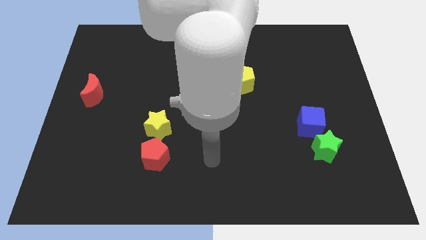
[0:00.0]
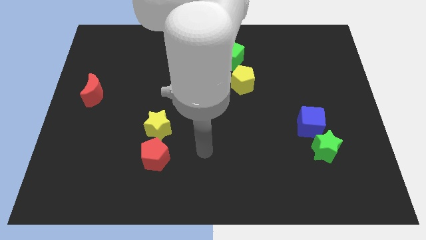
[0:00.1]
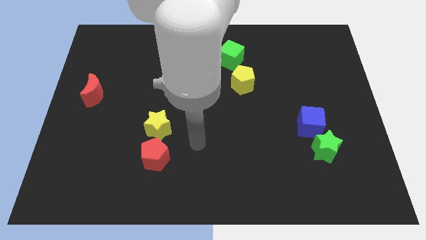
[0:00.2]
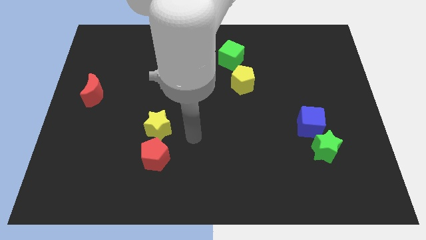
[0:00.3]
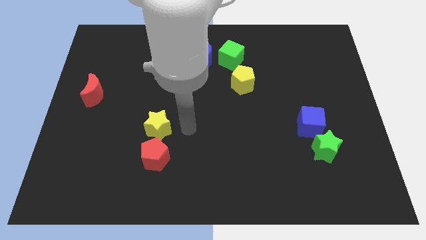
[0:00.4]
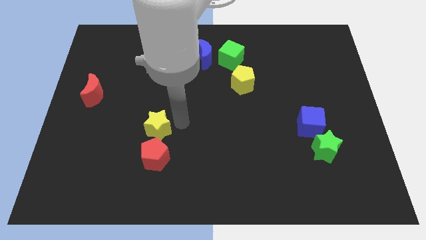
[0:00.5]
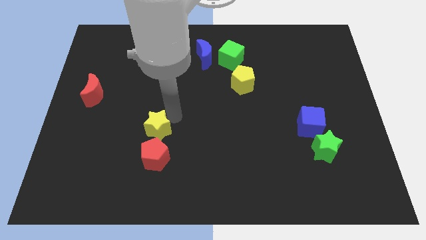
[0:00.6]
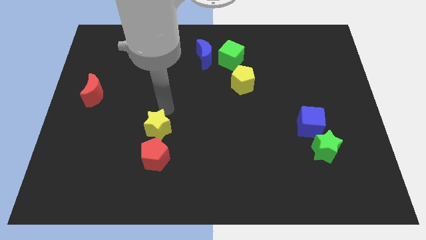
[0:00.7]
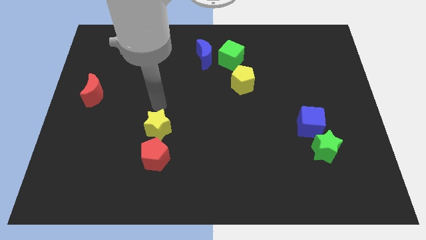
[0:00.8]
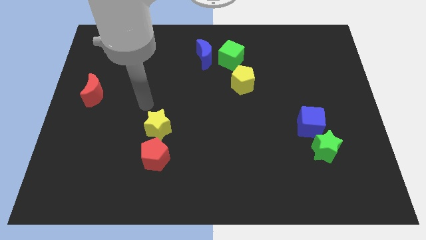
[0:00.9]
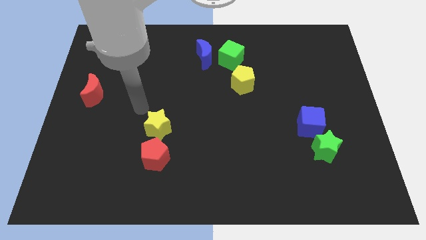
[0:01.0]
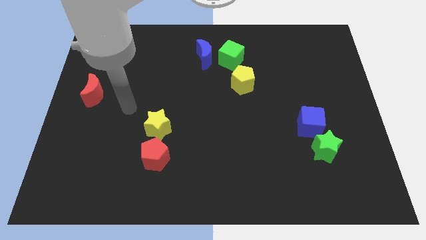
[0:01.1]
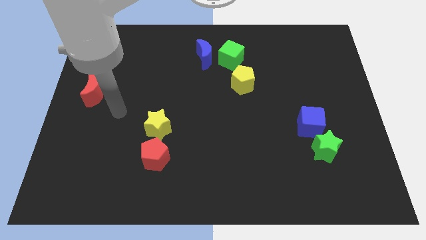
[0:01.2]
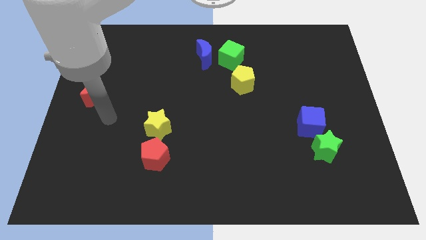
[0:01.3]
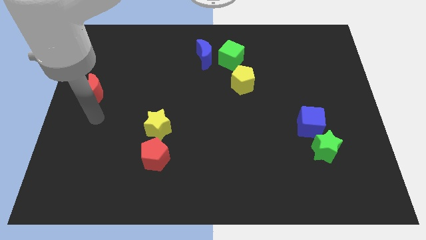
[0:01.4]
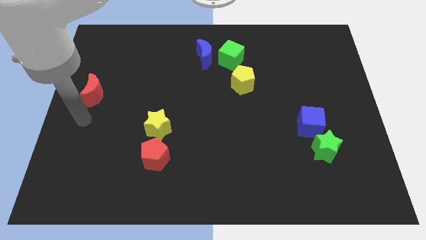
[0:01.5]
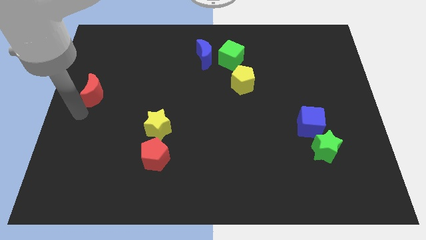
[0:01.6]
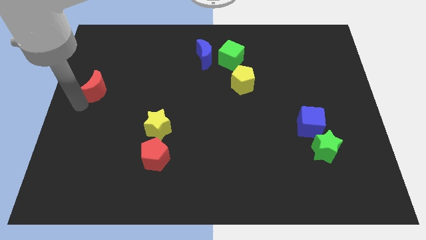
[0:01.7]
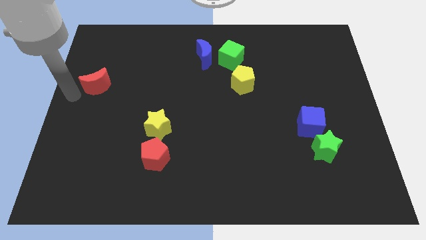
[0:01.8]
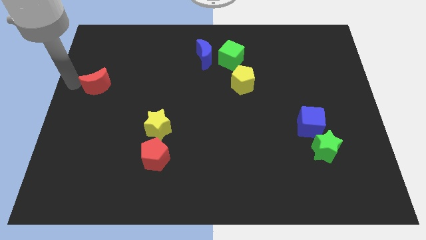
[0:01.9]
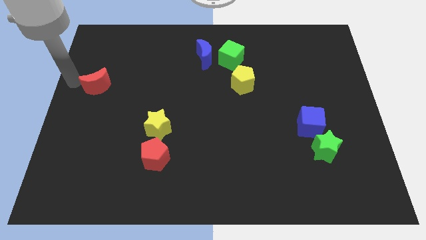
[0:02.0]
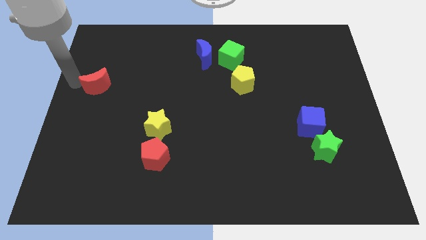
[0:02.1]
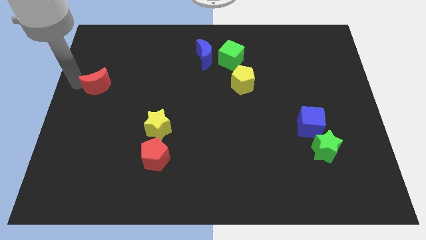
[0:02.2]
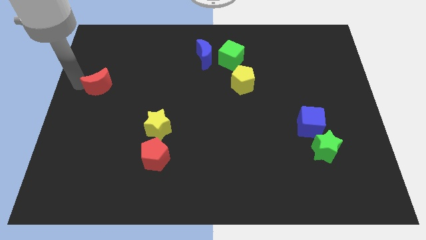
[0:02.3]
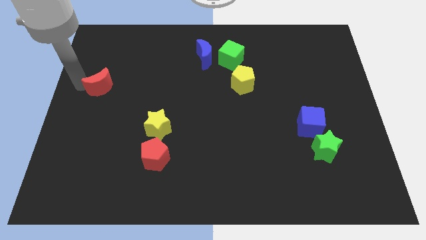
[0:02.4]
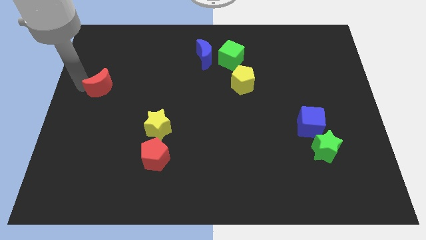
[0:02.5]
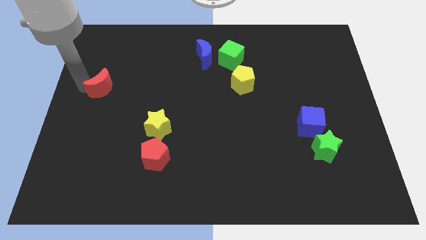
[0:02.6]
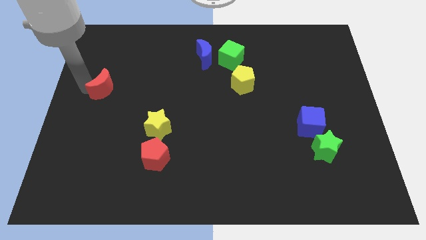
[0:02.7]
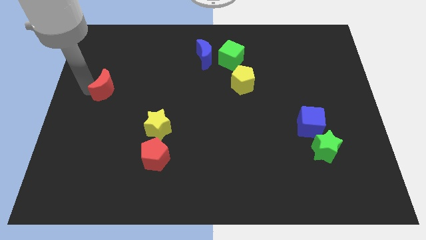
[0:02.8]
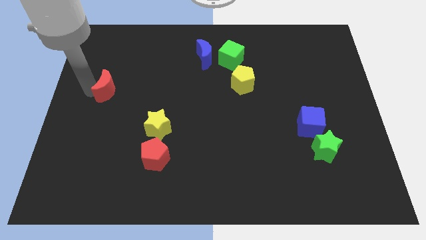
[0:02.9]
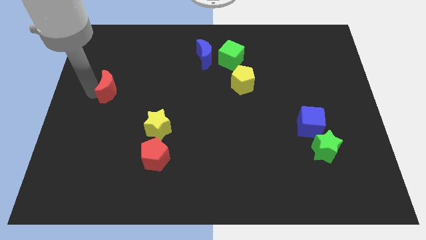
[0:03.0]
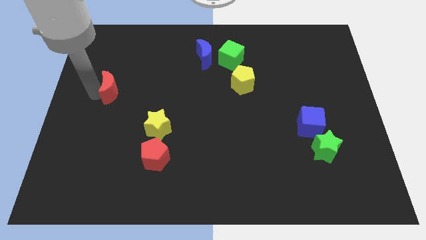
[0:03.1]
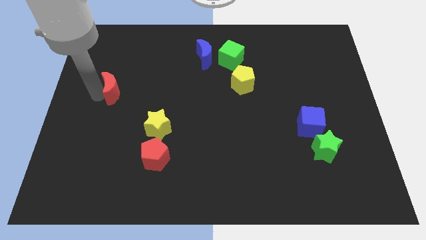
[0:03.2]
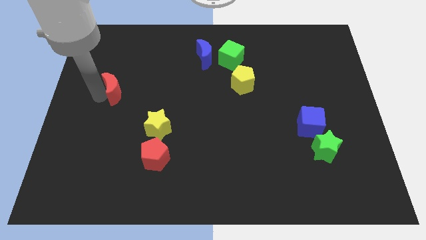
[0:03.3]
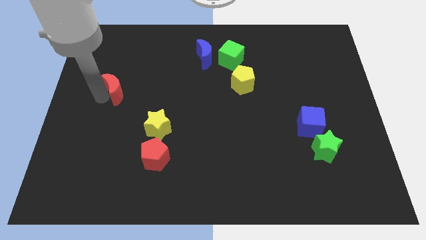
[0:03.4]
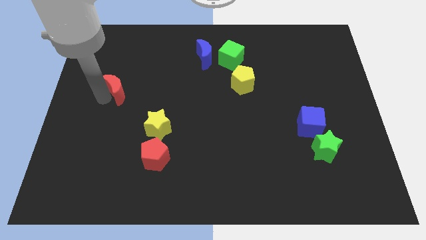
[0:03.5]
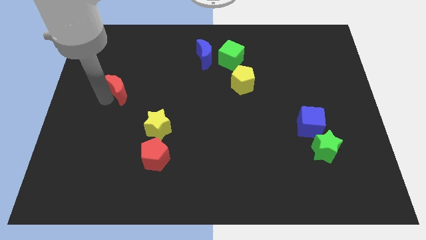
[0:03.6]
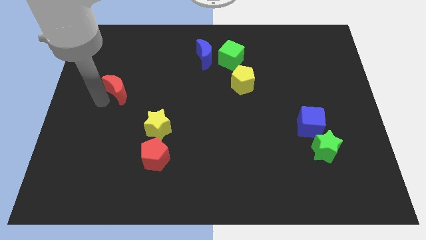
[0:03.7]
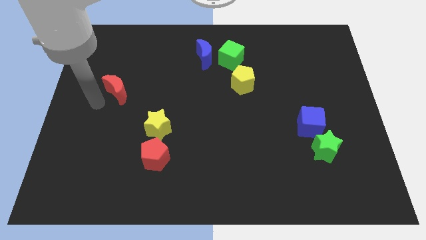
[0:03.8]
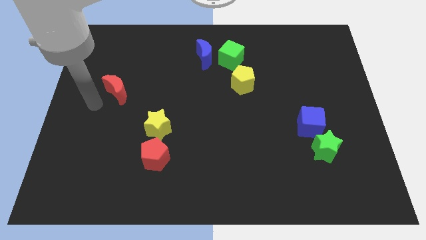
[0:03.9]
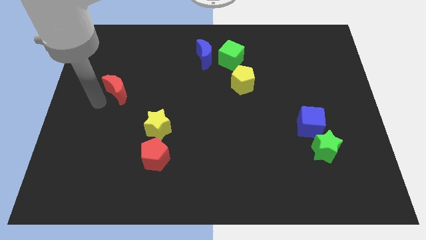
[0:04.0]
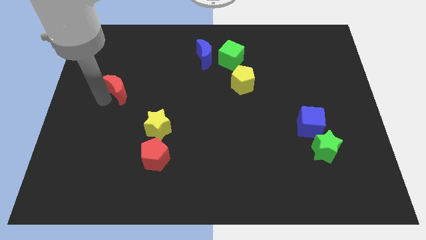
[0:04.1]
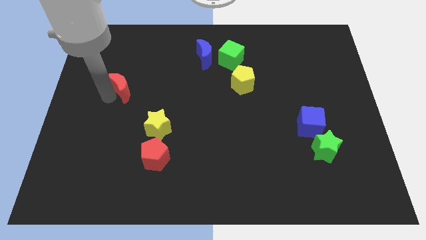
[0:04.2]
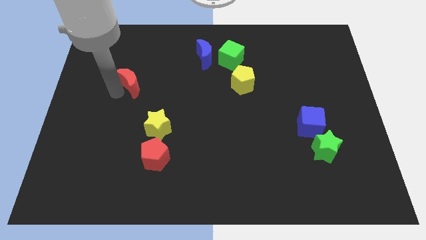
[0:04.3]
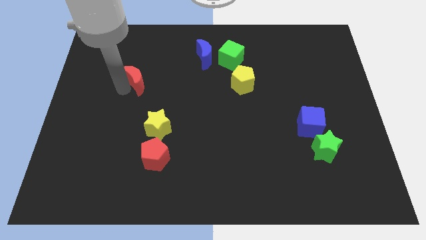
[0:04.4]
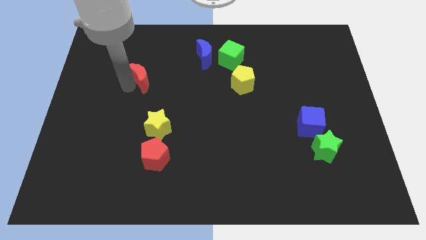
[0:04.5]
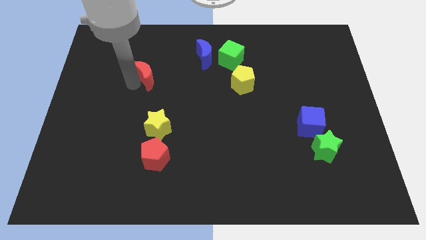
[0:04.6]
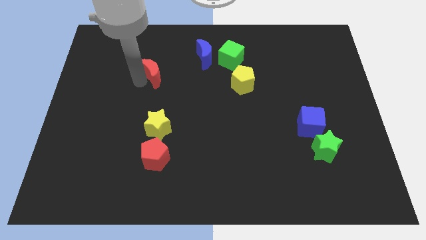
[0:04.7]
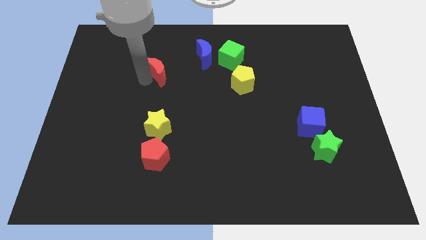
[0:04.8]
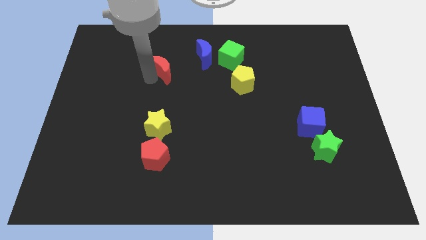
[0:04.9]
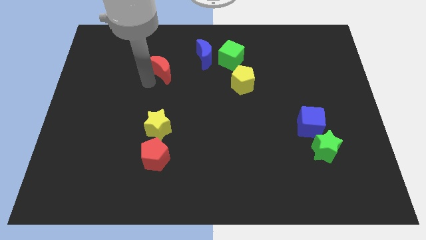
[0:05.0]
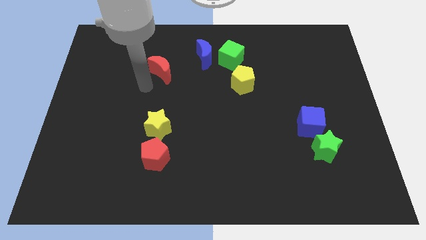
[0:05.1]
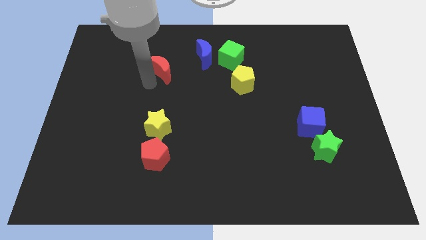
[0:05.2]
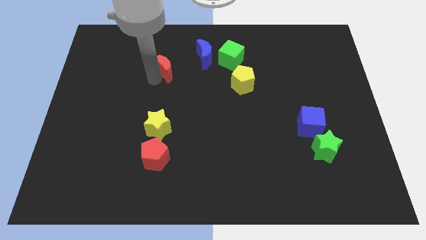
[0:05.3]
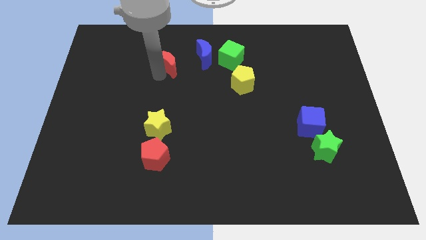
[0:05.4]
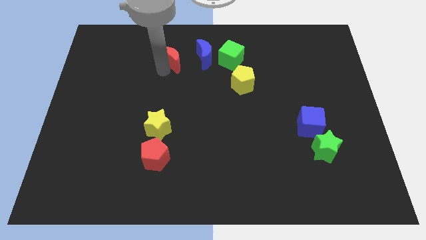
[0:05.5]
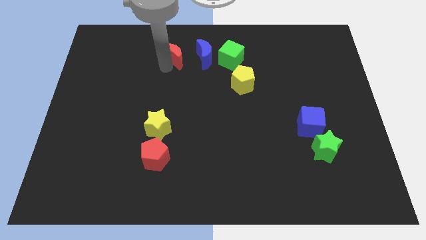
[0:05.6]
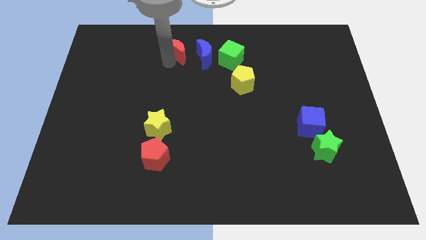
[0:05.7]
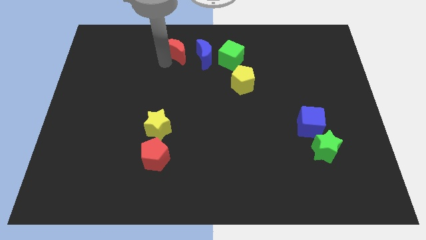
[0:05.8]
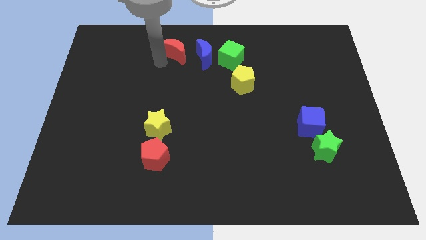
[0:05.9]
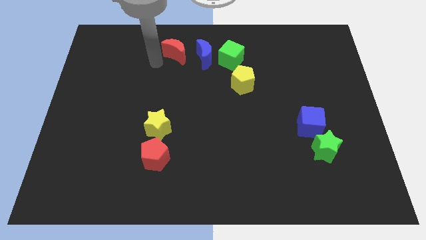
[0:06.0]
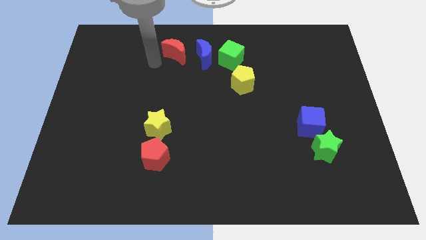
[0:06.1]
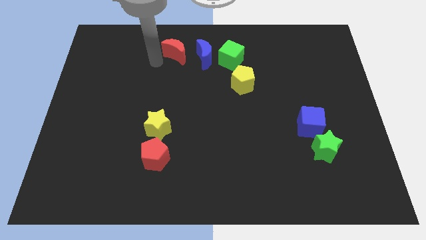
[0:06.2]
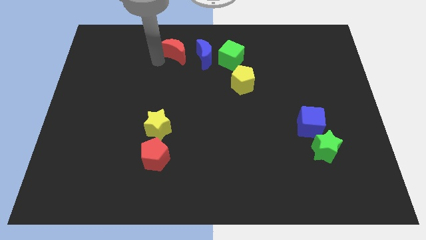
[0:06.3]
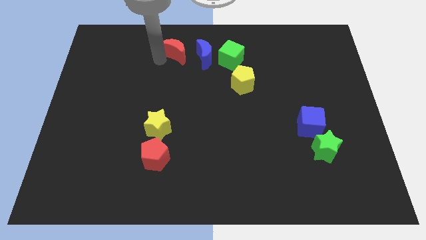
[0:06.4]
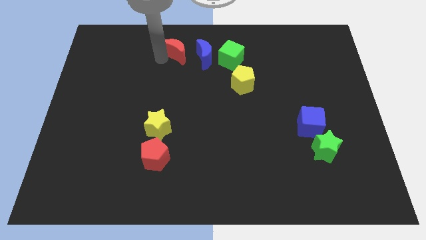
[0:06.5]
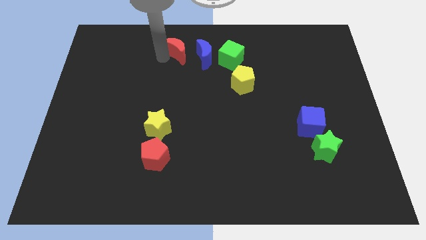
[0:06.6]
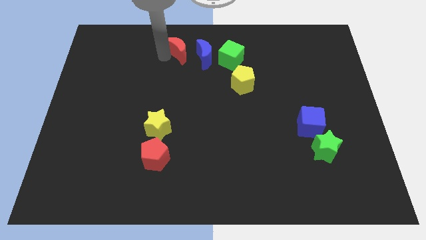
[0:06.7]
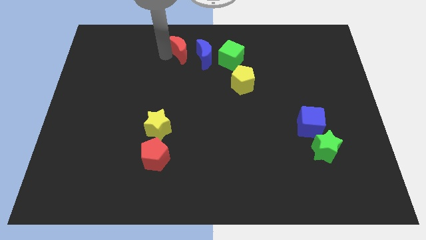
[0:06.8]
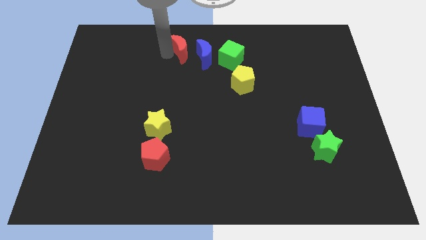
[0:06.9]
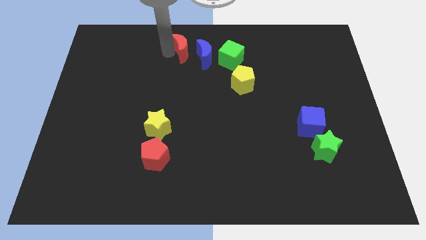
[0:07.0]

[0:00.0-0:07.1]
slide the red moon to the top
